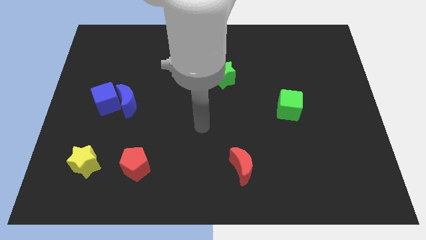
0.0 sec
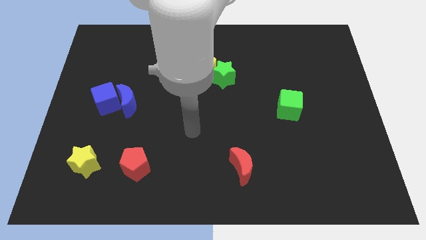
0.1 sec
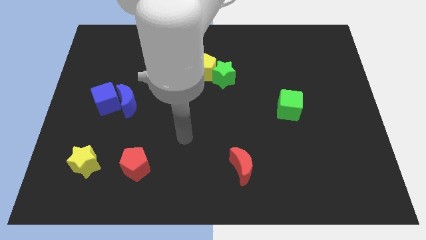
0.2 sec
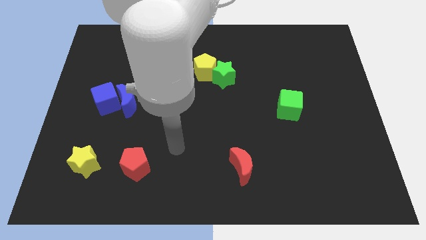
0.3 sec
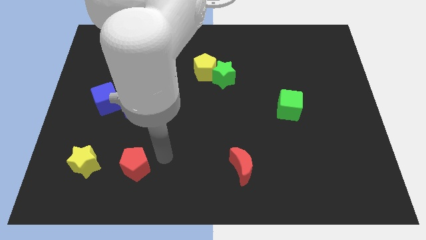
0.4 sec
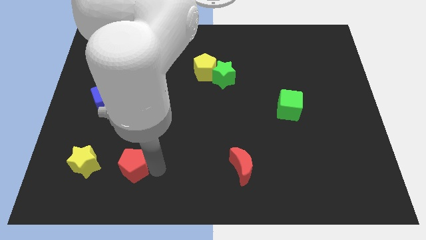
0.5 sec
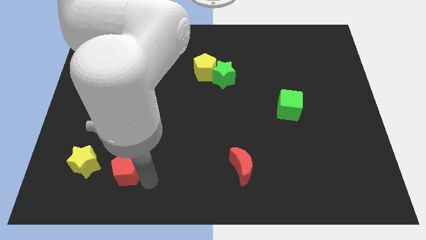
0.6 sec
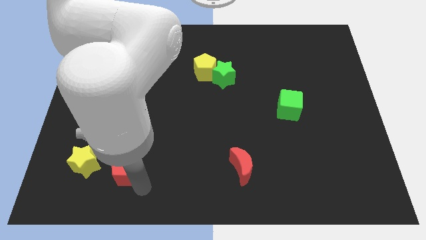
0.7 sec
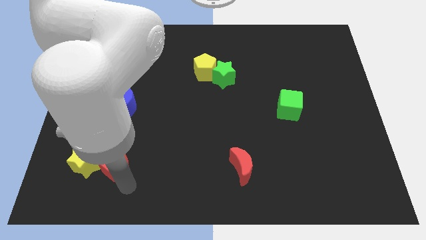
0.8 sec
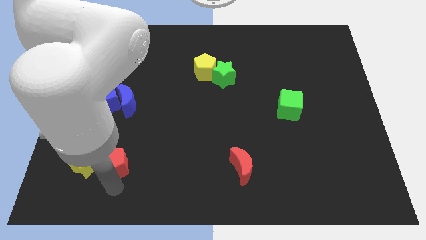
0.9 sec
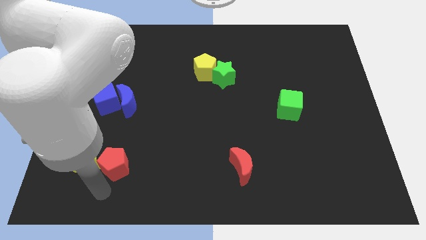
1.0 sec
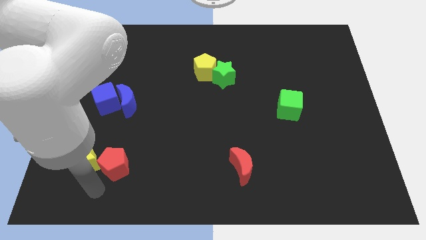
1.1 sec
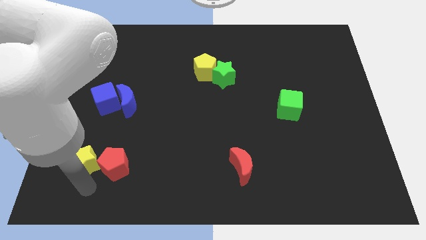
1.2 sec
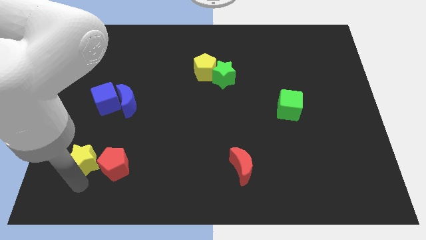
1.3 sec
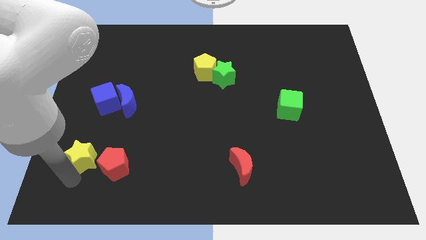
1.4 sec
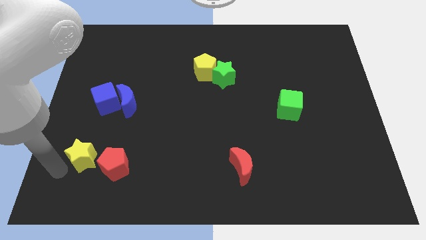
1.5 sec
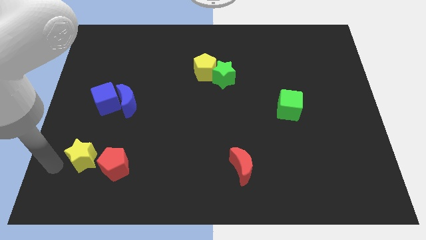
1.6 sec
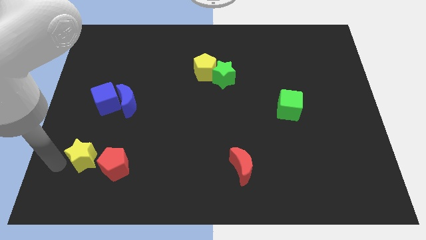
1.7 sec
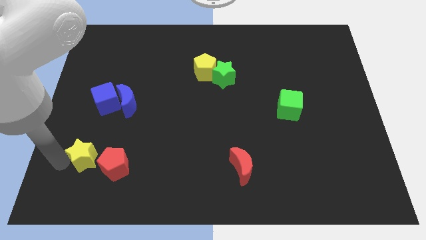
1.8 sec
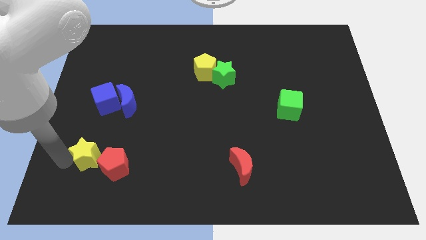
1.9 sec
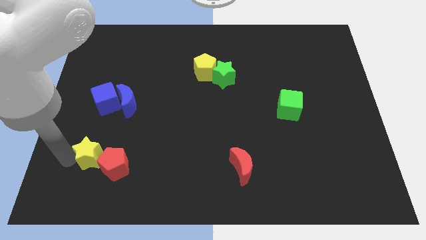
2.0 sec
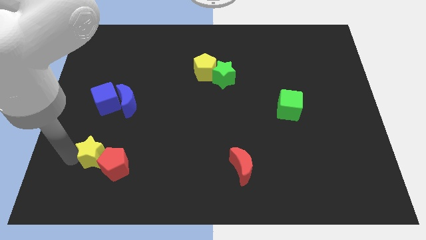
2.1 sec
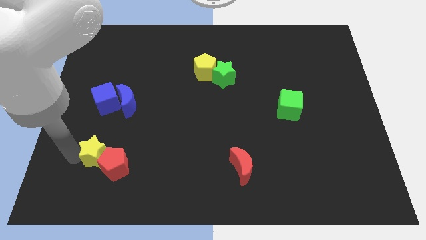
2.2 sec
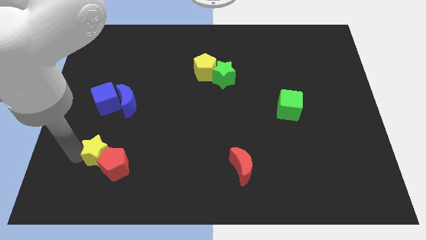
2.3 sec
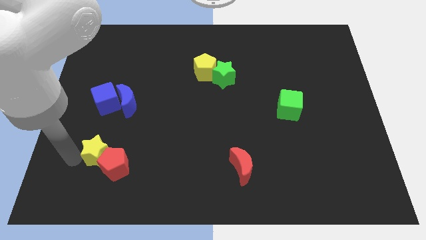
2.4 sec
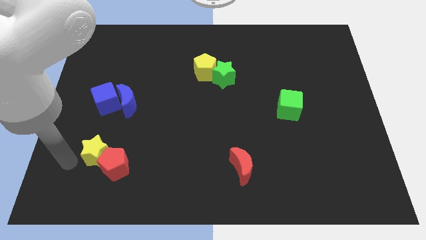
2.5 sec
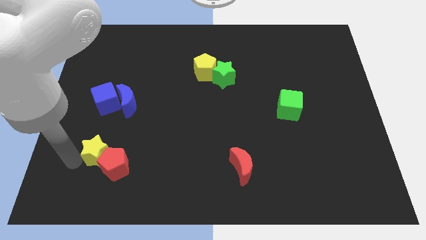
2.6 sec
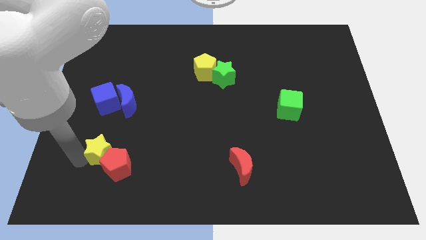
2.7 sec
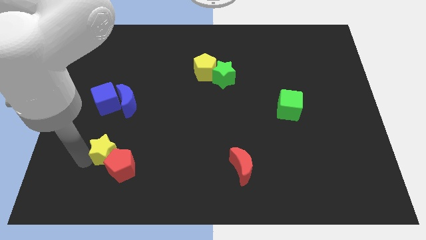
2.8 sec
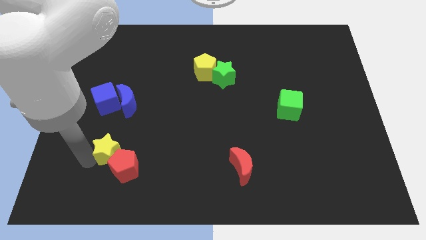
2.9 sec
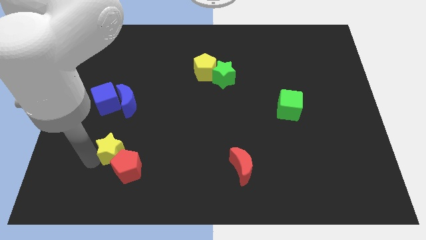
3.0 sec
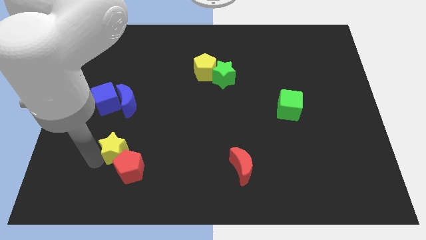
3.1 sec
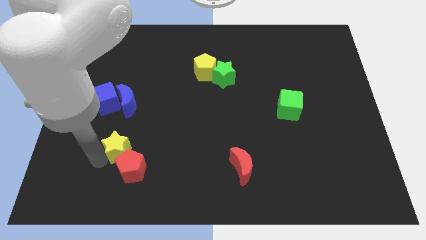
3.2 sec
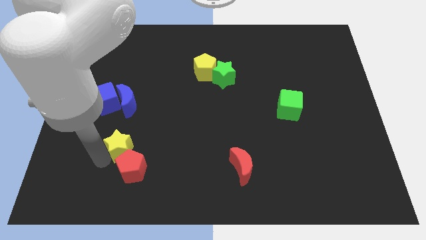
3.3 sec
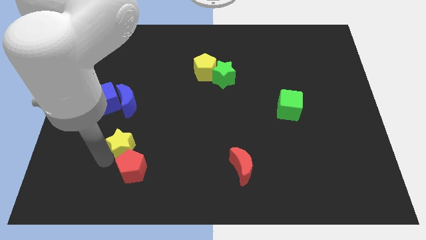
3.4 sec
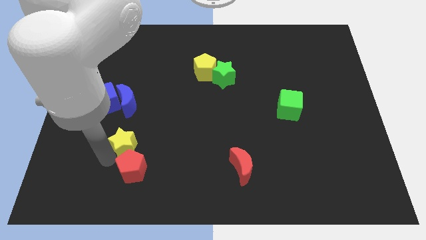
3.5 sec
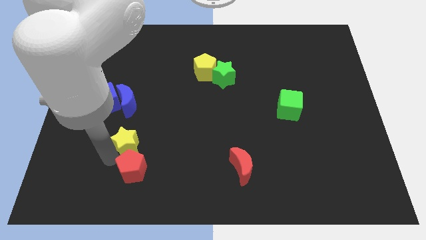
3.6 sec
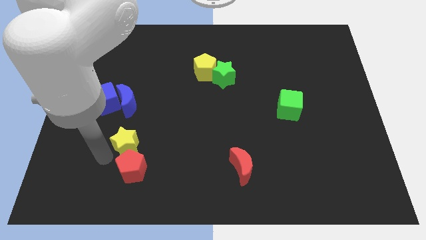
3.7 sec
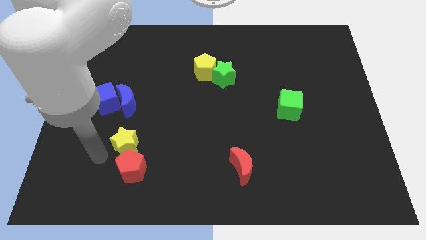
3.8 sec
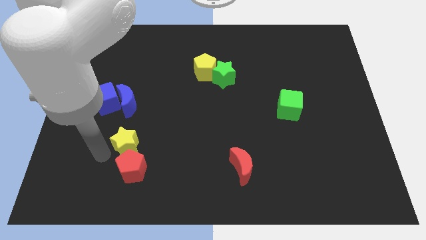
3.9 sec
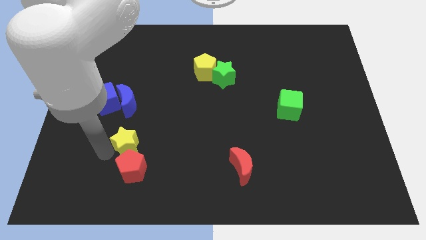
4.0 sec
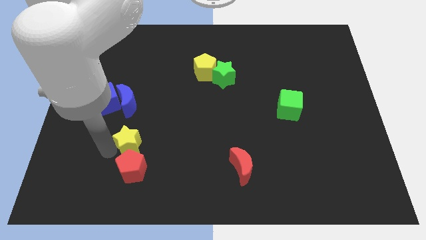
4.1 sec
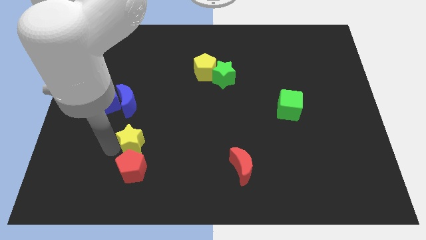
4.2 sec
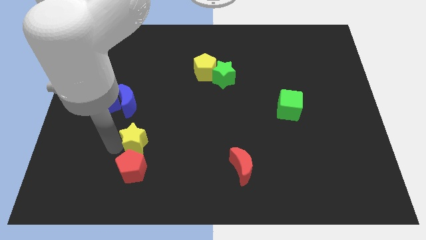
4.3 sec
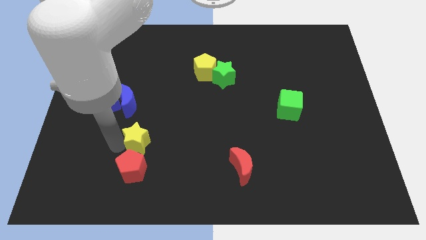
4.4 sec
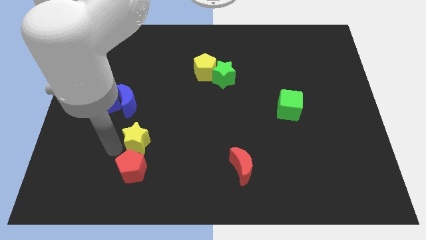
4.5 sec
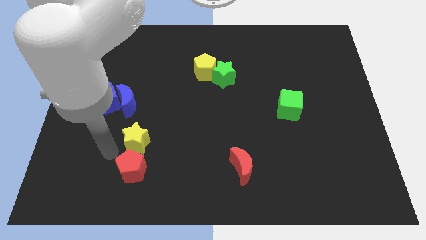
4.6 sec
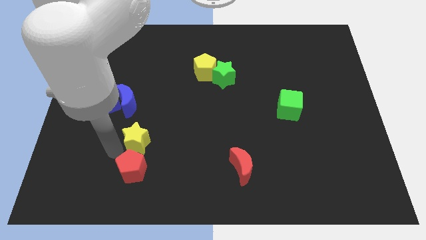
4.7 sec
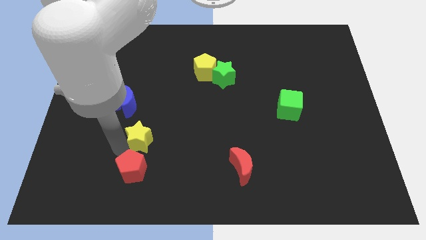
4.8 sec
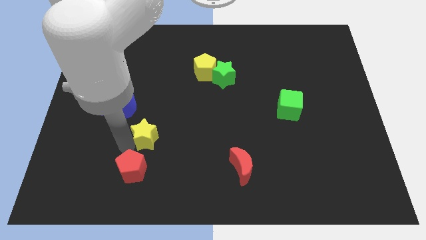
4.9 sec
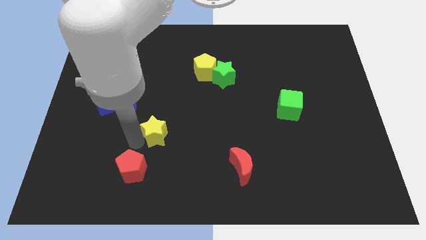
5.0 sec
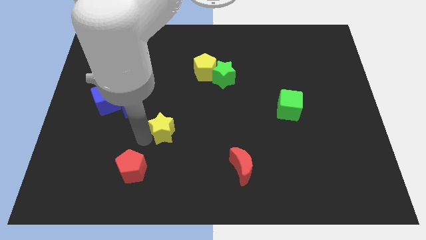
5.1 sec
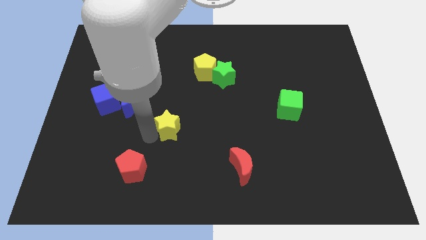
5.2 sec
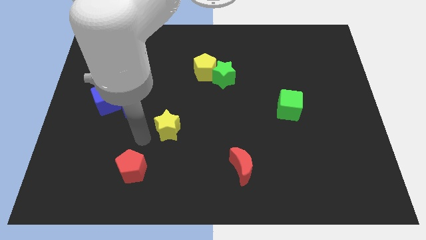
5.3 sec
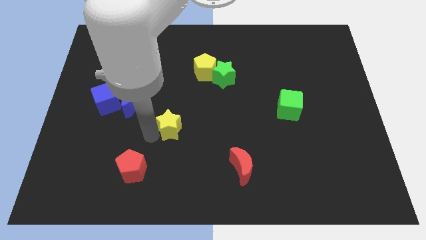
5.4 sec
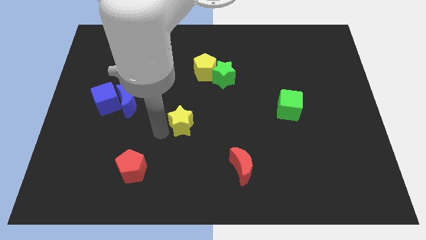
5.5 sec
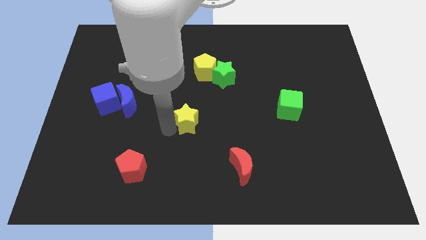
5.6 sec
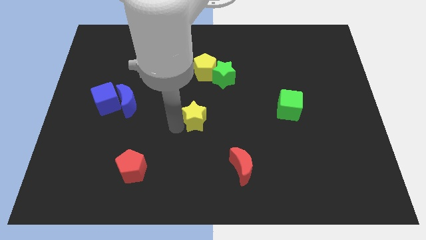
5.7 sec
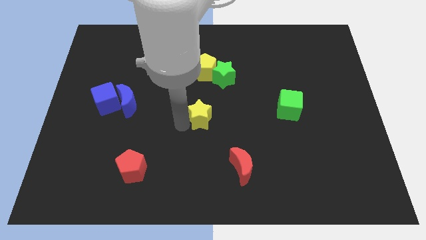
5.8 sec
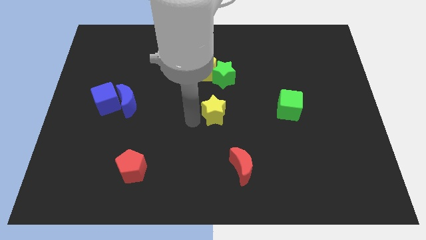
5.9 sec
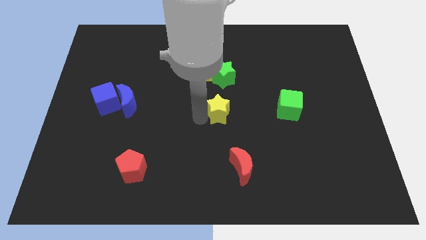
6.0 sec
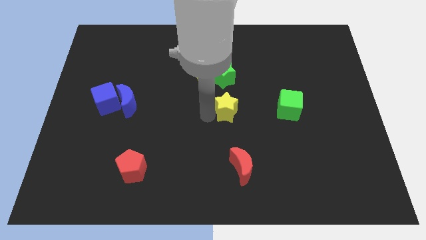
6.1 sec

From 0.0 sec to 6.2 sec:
put the yellow star left of the green cube

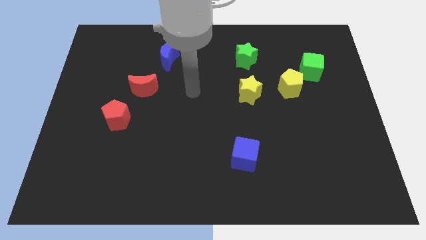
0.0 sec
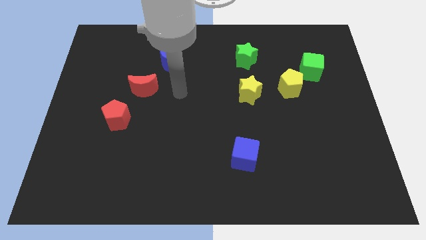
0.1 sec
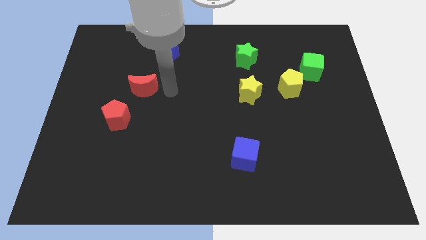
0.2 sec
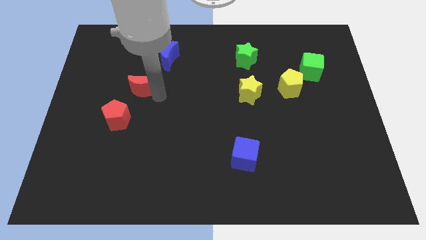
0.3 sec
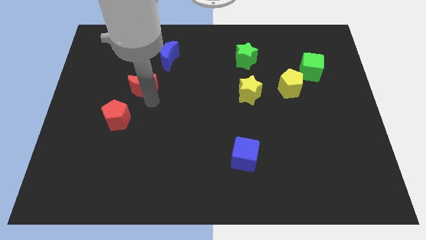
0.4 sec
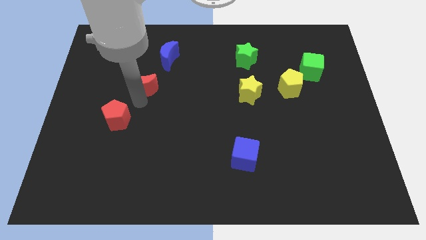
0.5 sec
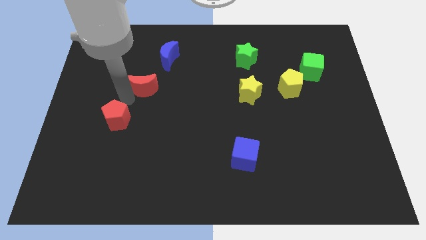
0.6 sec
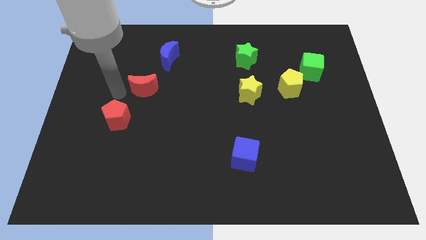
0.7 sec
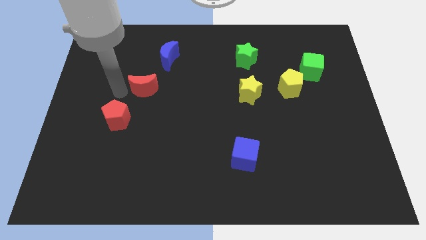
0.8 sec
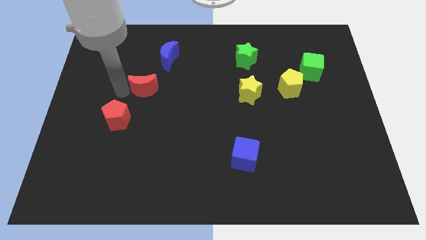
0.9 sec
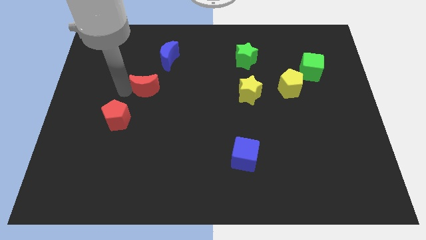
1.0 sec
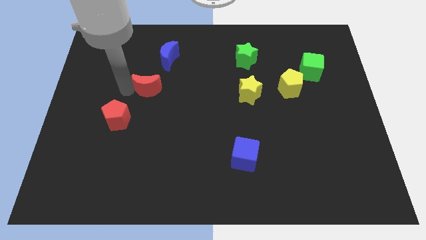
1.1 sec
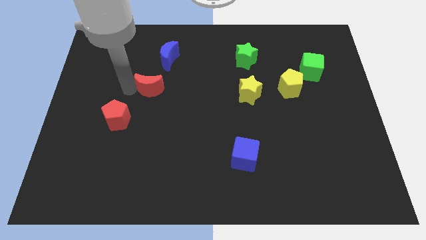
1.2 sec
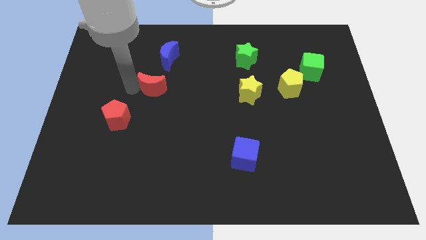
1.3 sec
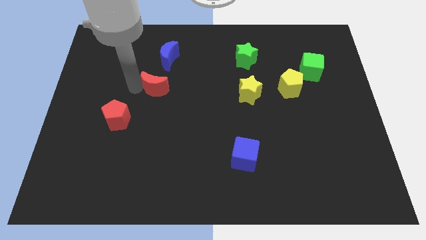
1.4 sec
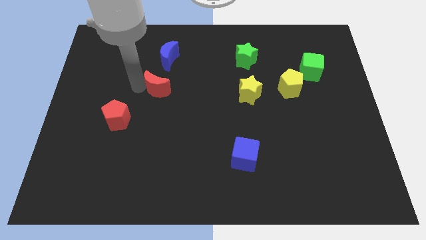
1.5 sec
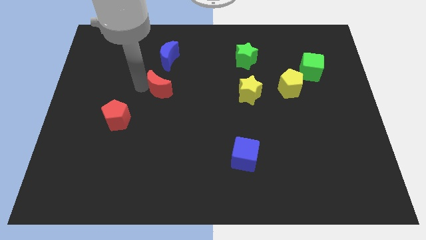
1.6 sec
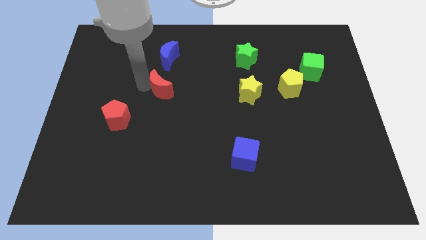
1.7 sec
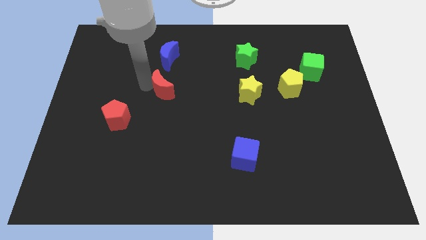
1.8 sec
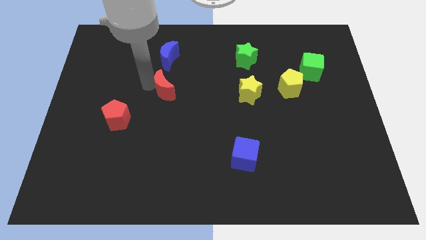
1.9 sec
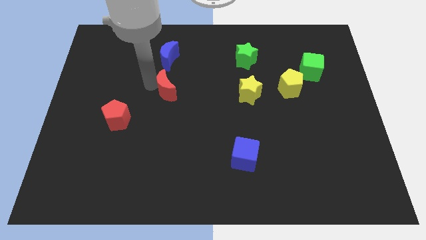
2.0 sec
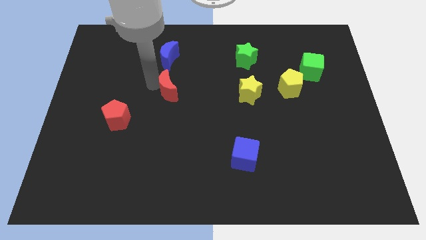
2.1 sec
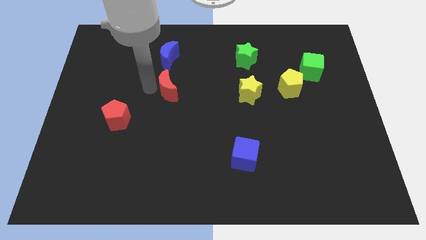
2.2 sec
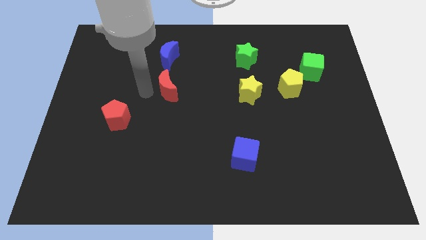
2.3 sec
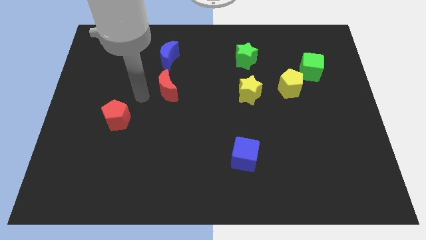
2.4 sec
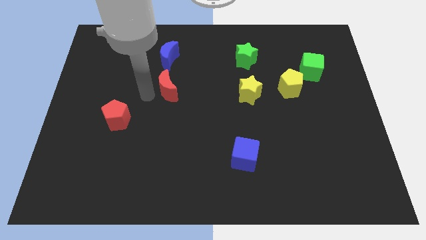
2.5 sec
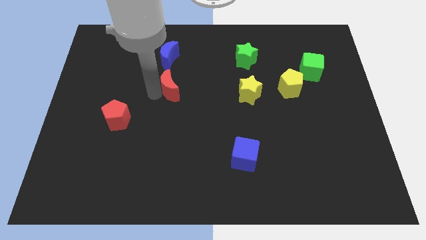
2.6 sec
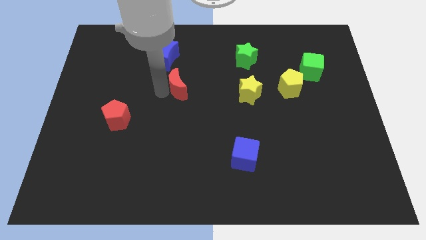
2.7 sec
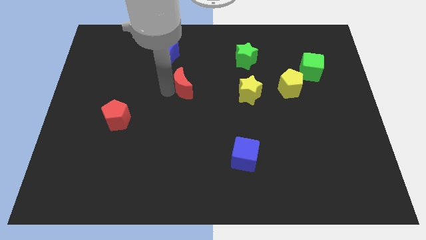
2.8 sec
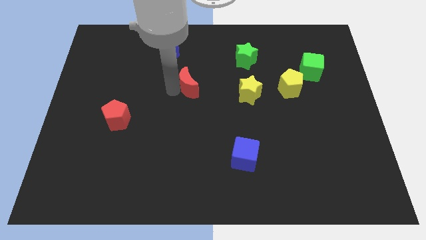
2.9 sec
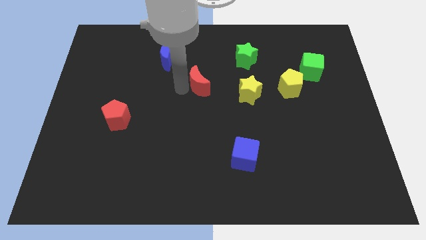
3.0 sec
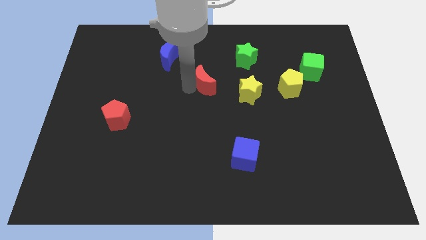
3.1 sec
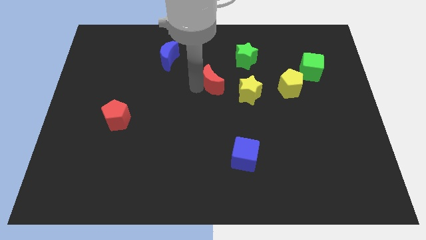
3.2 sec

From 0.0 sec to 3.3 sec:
put the red moon diagonally up and to the left of the yellow star
